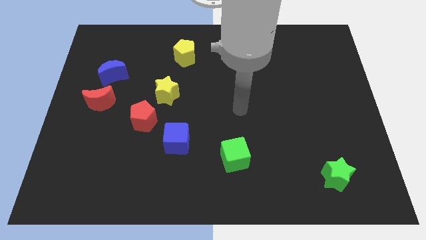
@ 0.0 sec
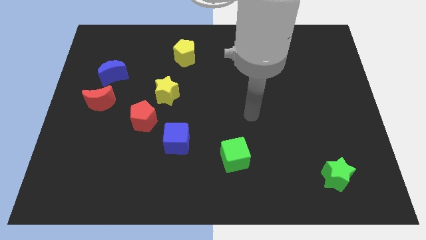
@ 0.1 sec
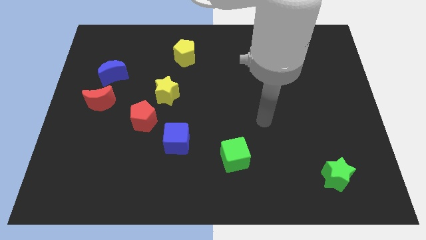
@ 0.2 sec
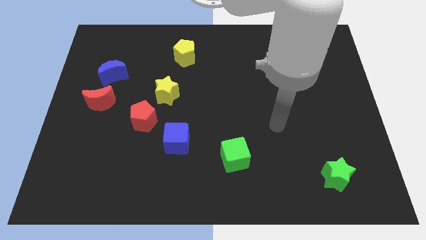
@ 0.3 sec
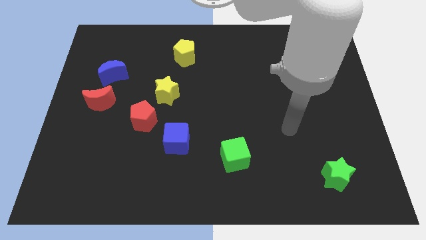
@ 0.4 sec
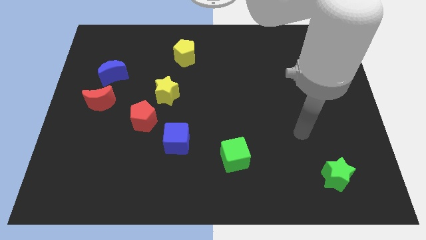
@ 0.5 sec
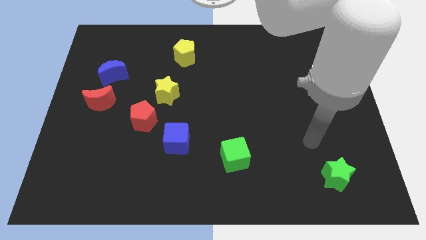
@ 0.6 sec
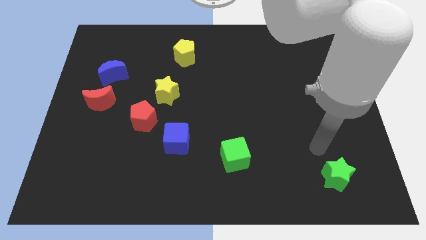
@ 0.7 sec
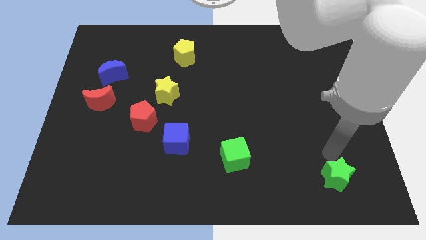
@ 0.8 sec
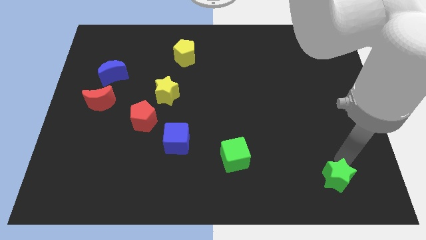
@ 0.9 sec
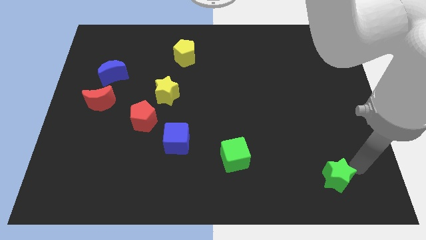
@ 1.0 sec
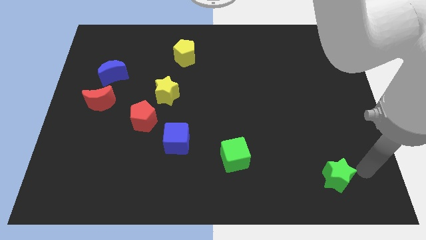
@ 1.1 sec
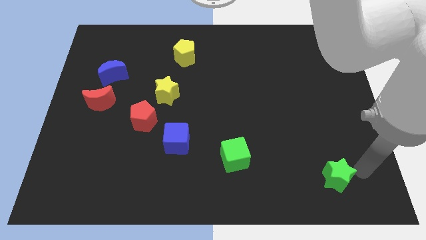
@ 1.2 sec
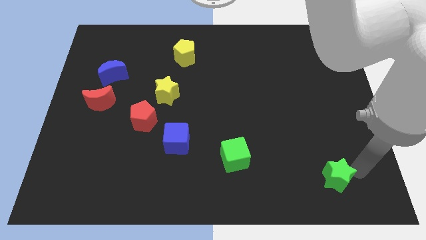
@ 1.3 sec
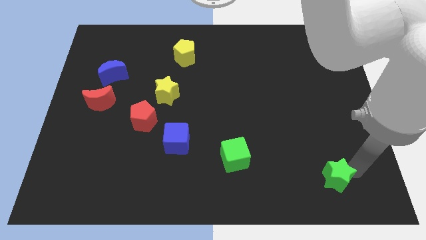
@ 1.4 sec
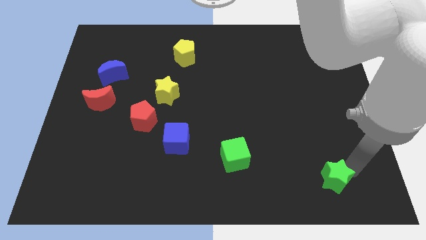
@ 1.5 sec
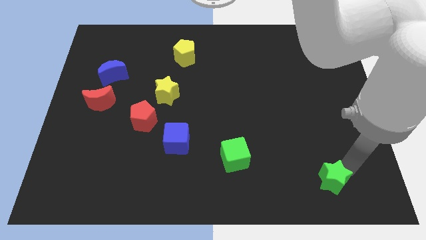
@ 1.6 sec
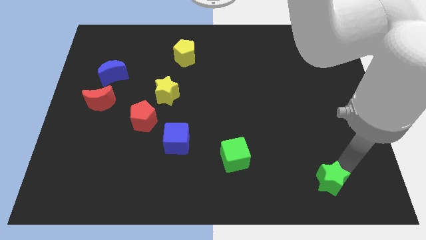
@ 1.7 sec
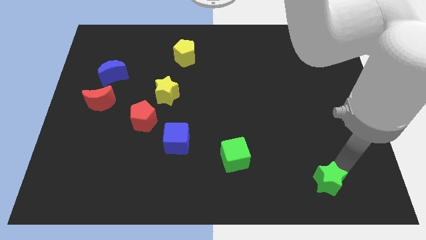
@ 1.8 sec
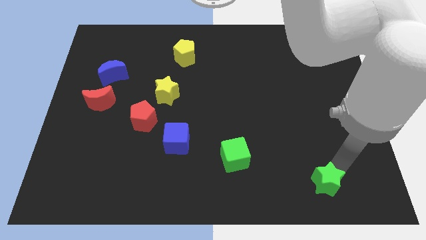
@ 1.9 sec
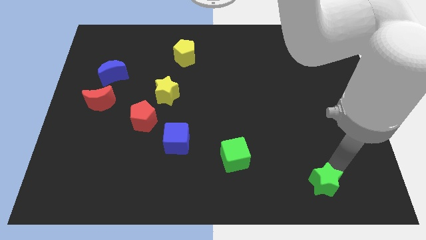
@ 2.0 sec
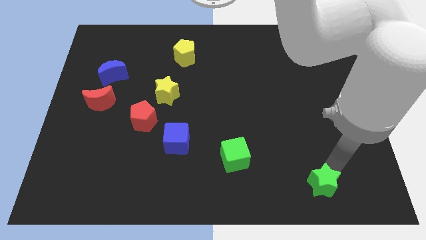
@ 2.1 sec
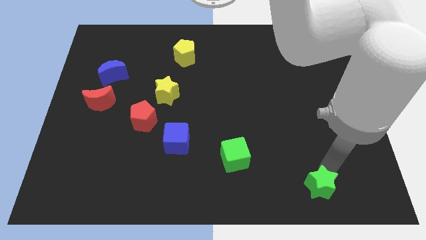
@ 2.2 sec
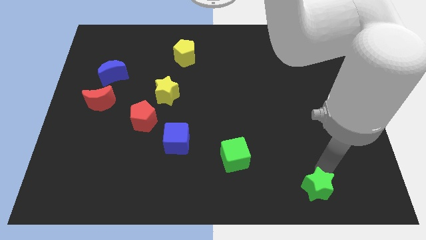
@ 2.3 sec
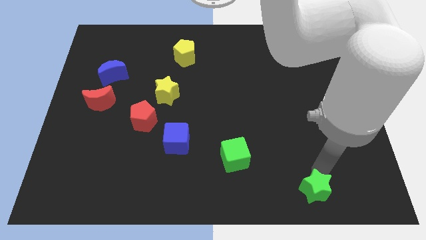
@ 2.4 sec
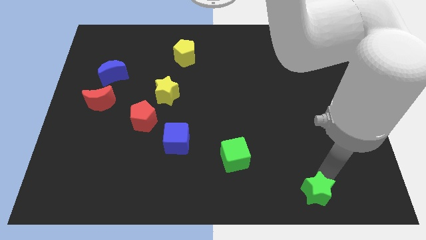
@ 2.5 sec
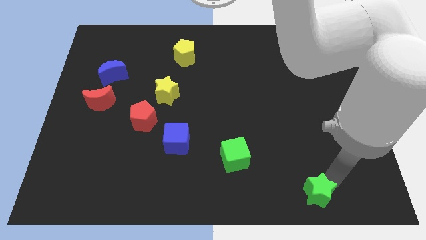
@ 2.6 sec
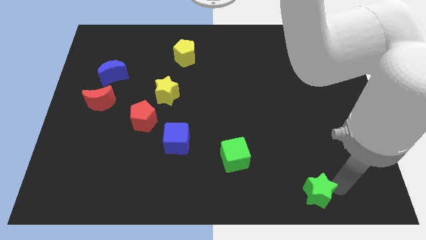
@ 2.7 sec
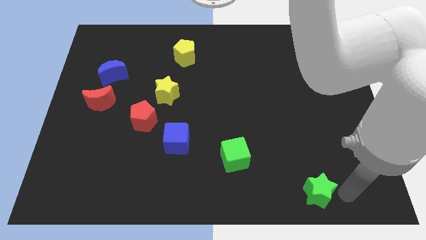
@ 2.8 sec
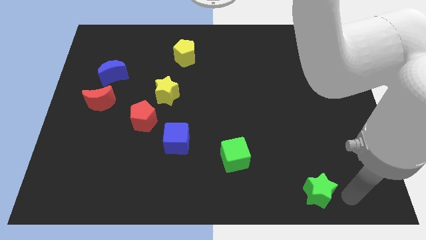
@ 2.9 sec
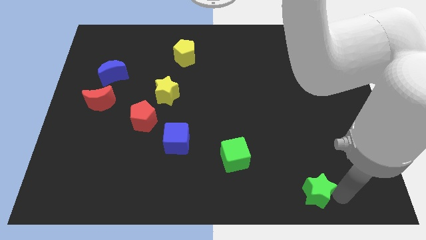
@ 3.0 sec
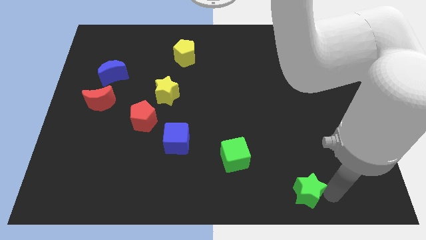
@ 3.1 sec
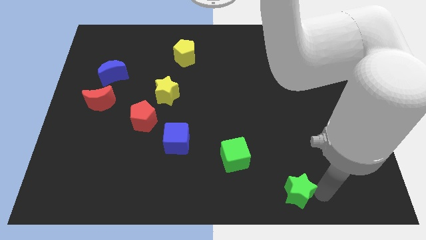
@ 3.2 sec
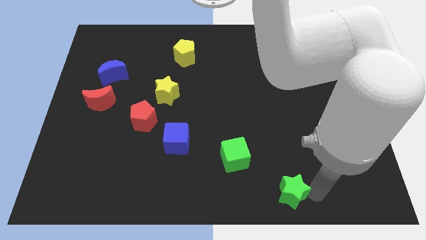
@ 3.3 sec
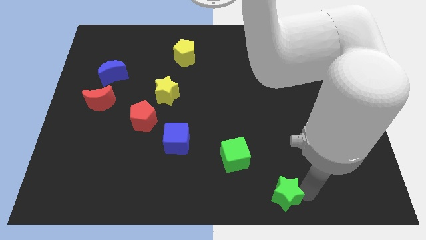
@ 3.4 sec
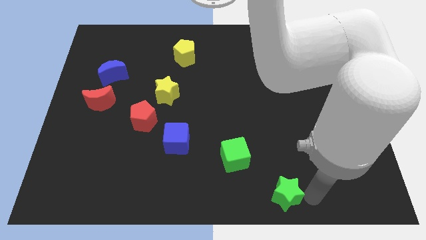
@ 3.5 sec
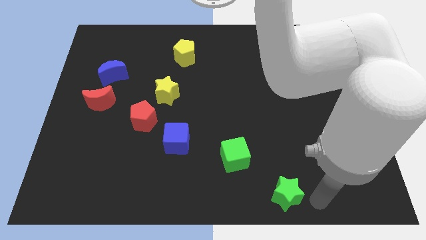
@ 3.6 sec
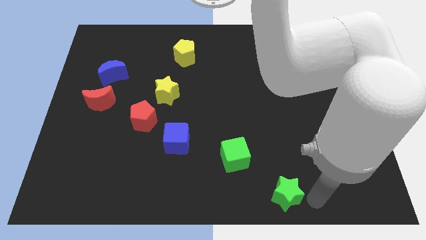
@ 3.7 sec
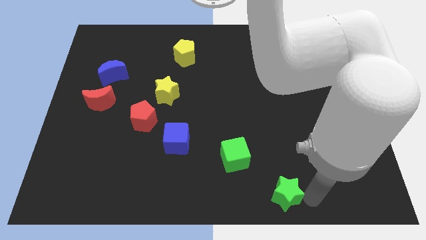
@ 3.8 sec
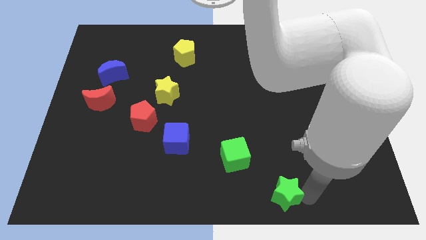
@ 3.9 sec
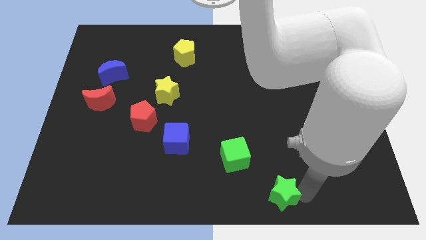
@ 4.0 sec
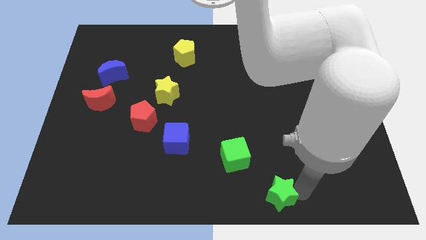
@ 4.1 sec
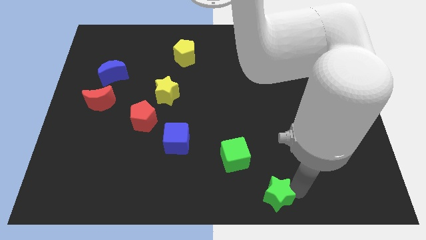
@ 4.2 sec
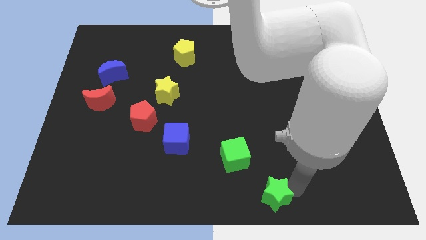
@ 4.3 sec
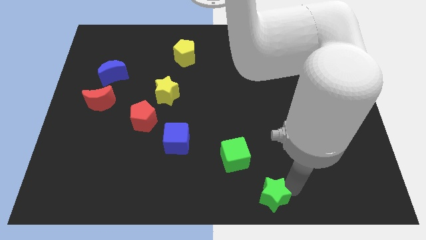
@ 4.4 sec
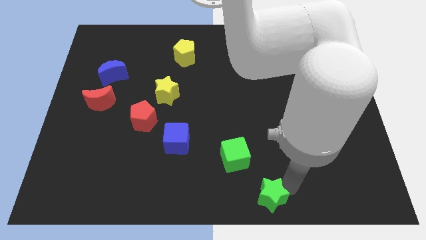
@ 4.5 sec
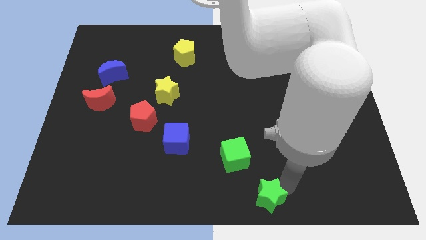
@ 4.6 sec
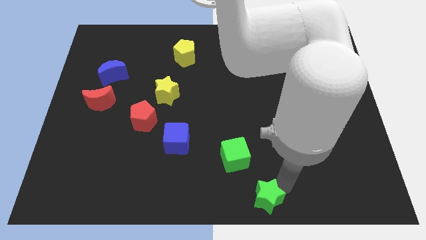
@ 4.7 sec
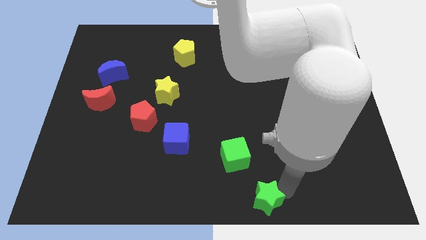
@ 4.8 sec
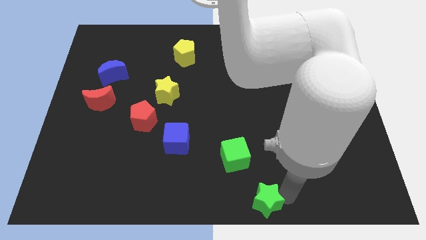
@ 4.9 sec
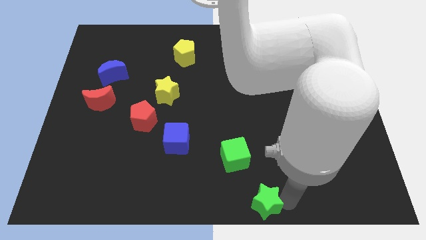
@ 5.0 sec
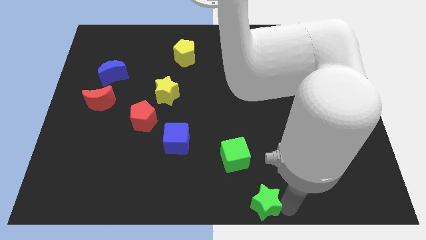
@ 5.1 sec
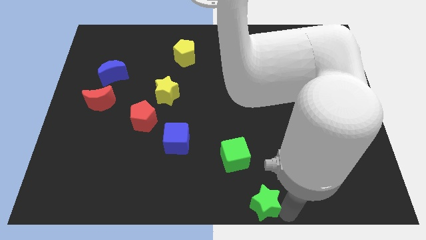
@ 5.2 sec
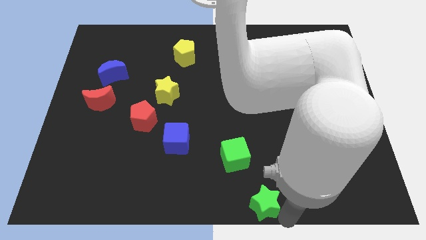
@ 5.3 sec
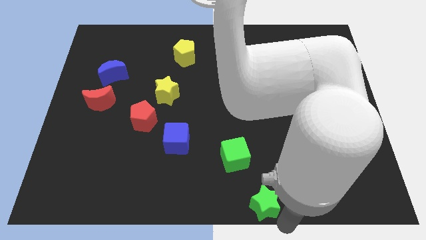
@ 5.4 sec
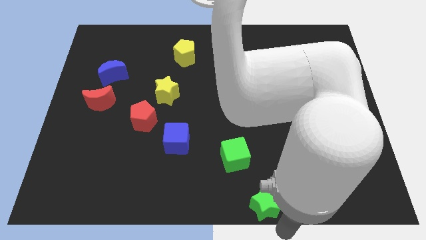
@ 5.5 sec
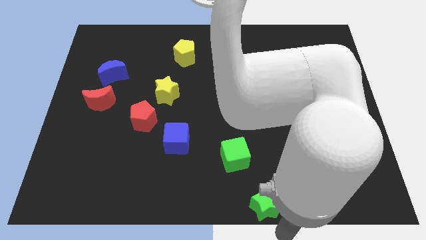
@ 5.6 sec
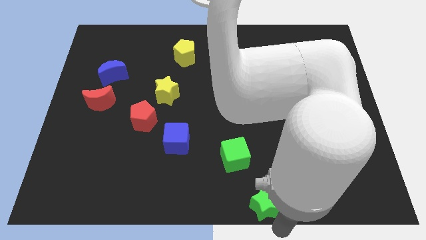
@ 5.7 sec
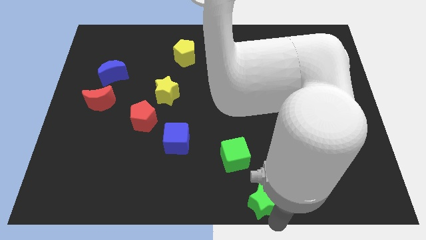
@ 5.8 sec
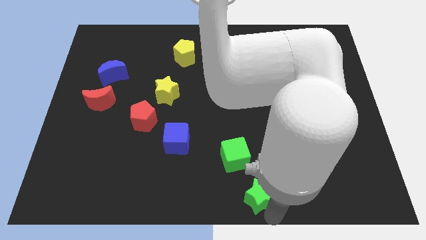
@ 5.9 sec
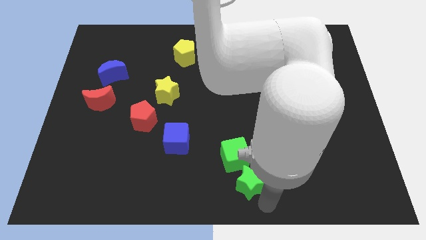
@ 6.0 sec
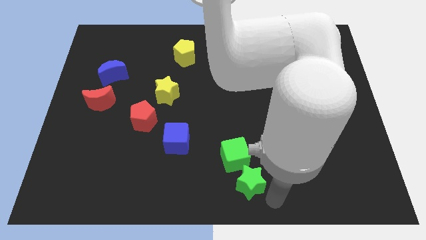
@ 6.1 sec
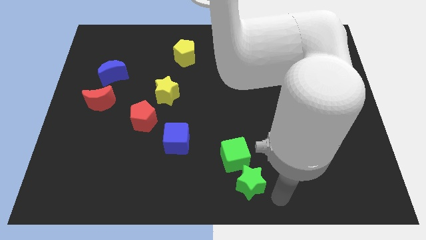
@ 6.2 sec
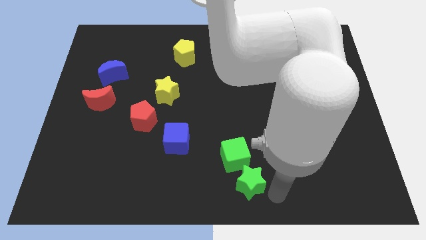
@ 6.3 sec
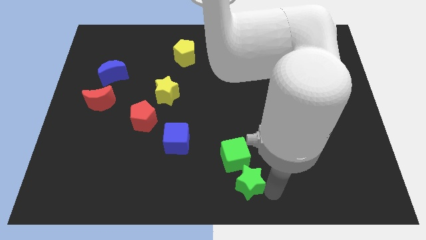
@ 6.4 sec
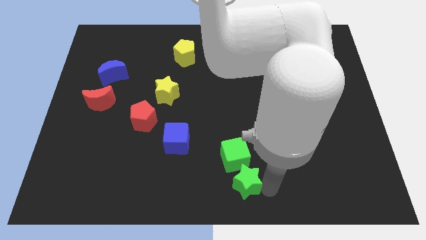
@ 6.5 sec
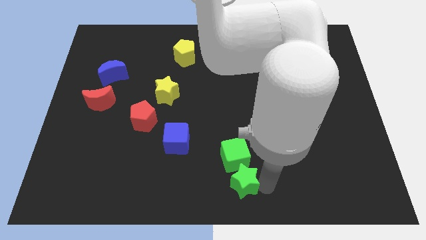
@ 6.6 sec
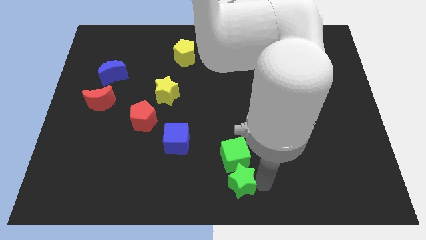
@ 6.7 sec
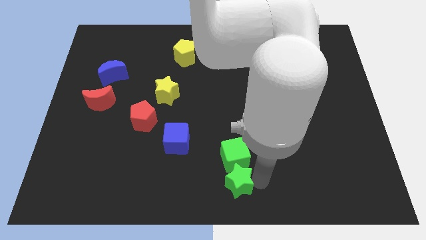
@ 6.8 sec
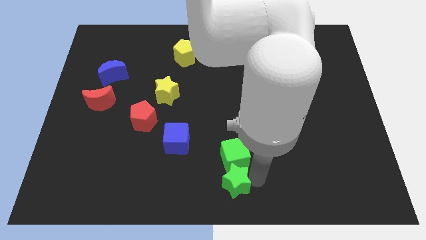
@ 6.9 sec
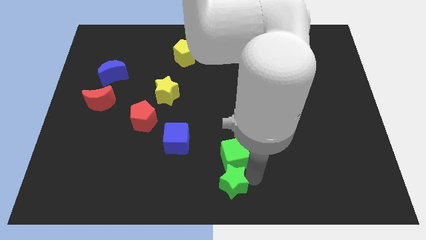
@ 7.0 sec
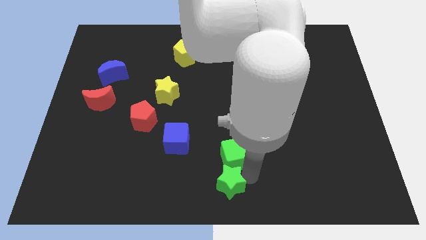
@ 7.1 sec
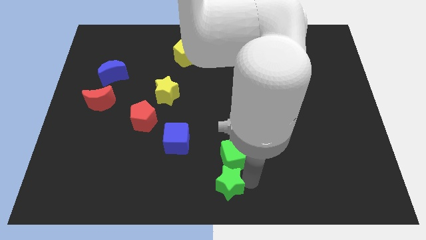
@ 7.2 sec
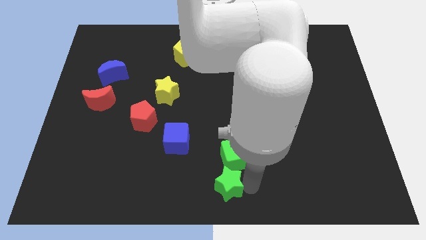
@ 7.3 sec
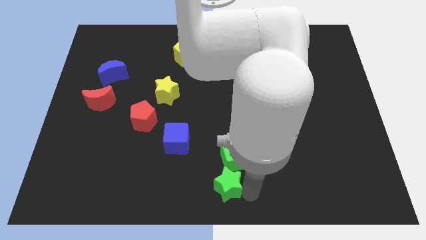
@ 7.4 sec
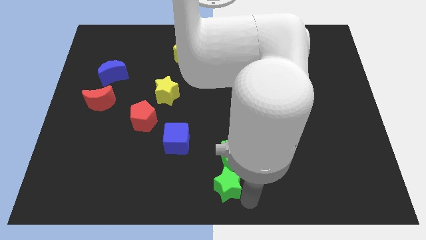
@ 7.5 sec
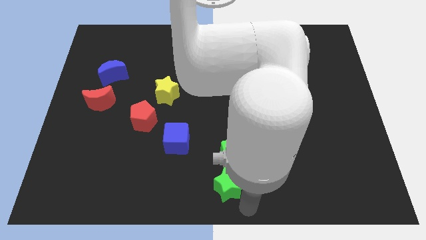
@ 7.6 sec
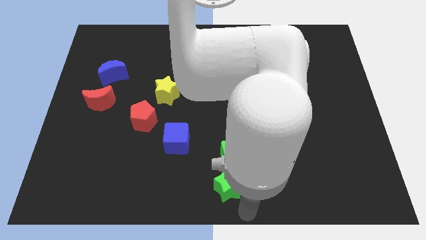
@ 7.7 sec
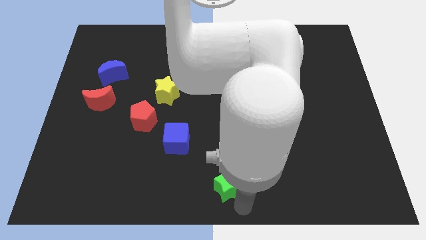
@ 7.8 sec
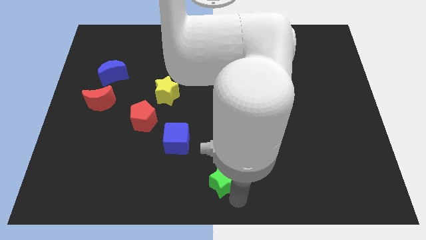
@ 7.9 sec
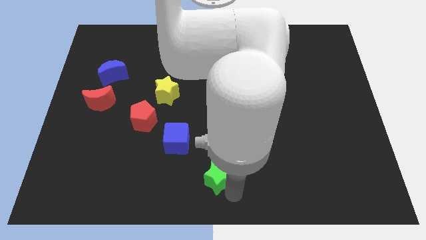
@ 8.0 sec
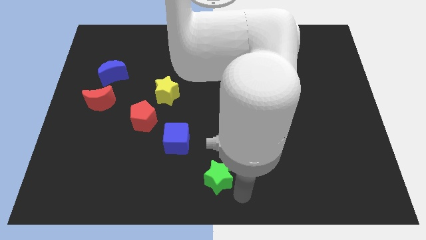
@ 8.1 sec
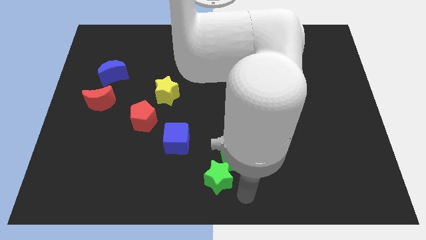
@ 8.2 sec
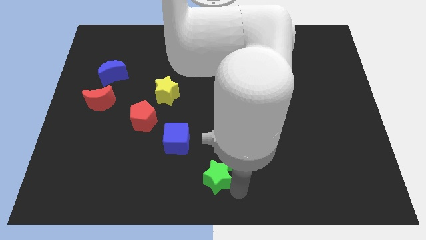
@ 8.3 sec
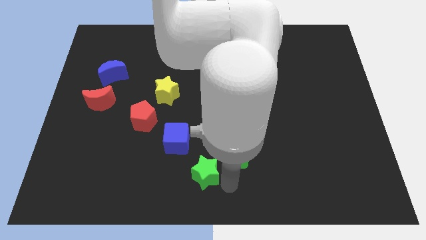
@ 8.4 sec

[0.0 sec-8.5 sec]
move the green star left of the green cube
